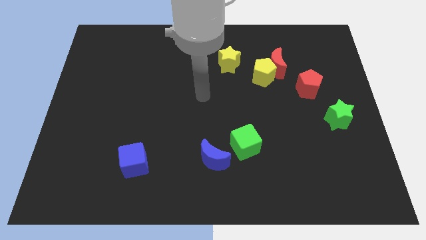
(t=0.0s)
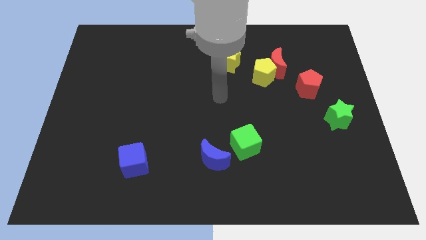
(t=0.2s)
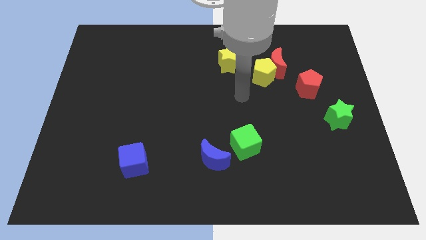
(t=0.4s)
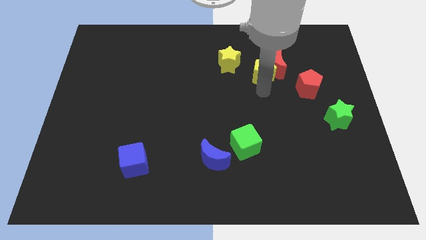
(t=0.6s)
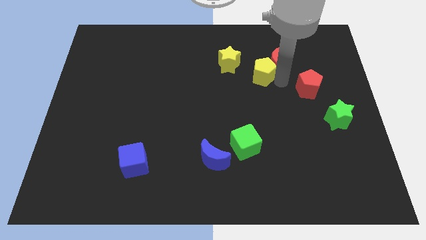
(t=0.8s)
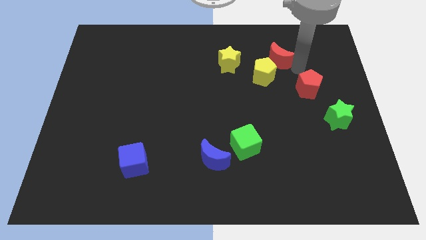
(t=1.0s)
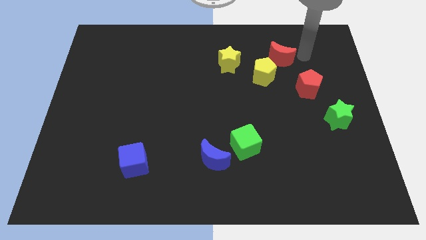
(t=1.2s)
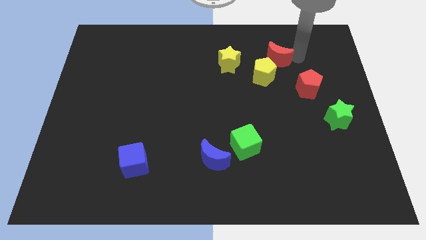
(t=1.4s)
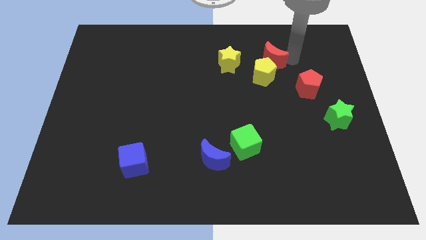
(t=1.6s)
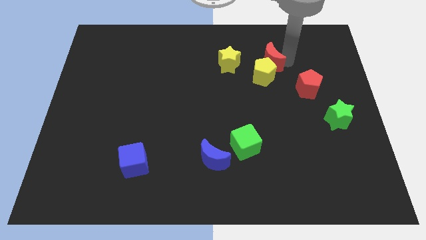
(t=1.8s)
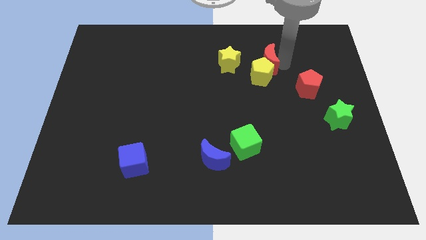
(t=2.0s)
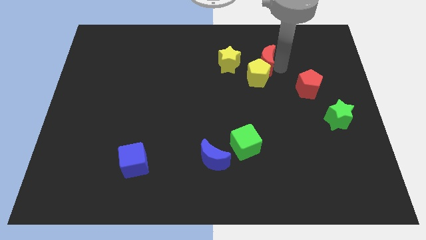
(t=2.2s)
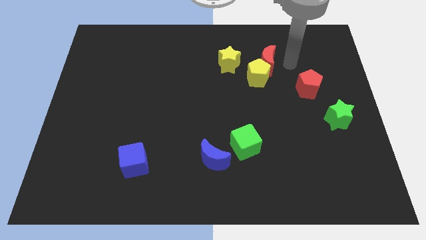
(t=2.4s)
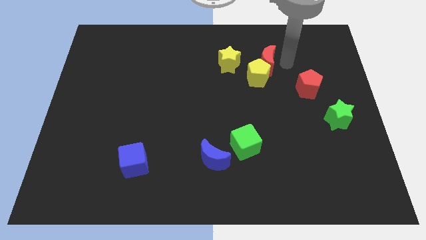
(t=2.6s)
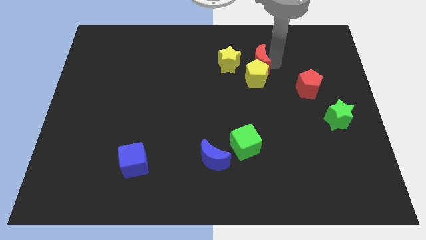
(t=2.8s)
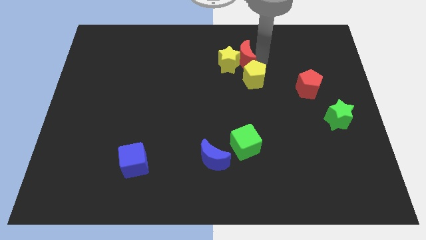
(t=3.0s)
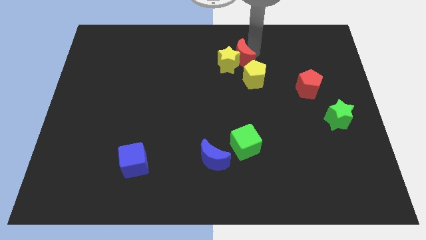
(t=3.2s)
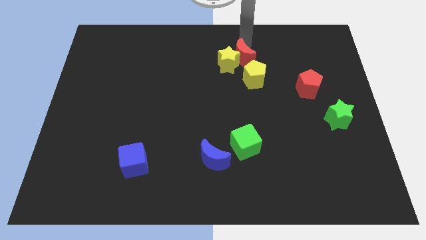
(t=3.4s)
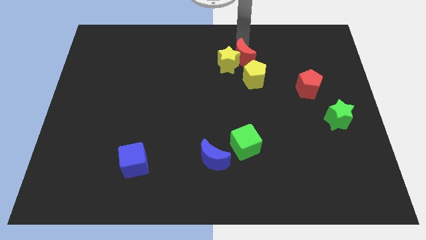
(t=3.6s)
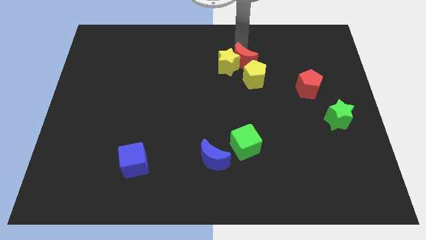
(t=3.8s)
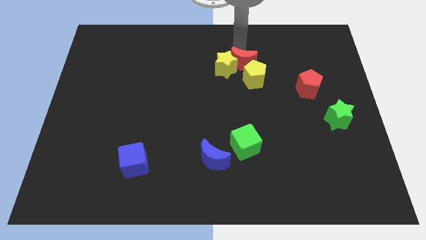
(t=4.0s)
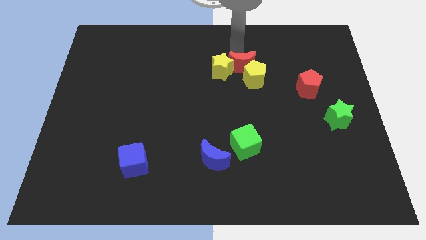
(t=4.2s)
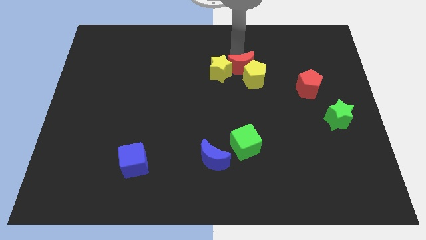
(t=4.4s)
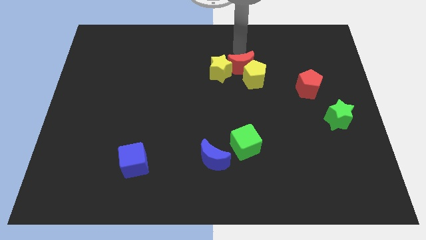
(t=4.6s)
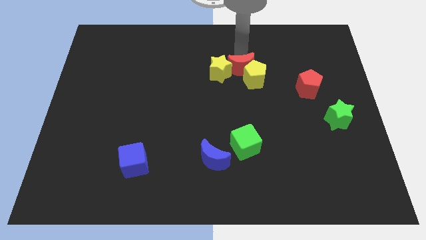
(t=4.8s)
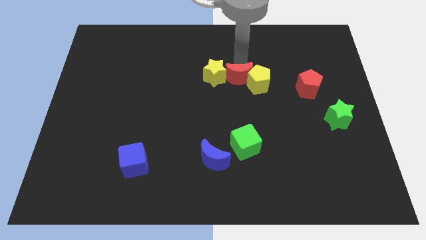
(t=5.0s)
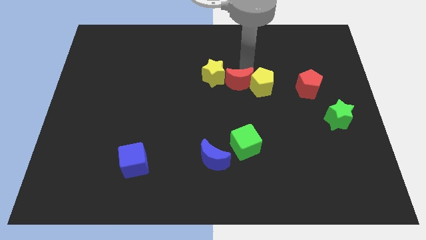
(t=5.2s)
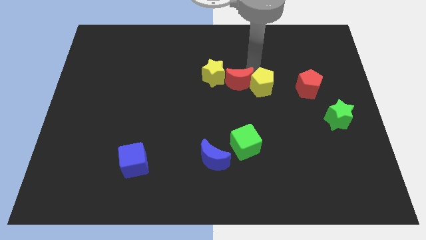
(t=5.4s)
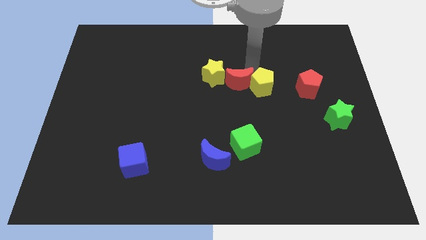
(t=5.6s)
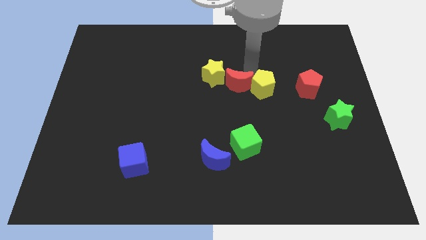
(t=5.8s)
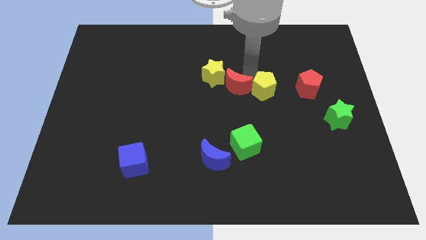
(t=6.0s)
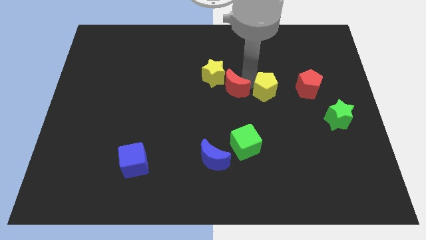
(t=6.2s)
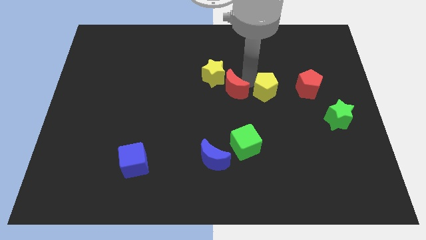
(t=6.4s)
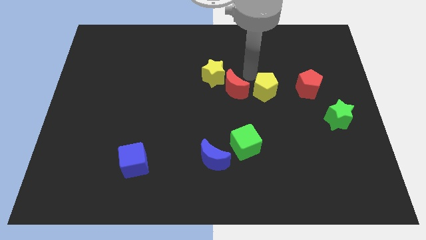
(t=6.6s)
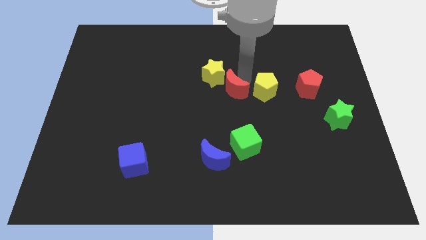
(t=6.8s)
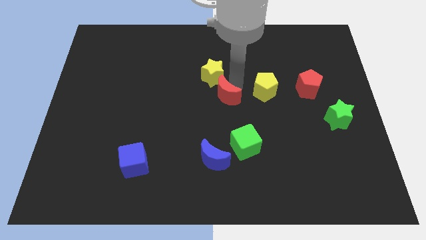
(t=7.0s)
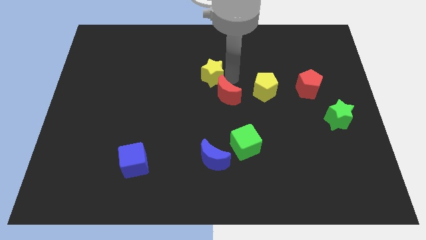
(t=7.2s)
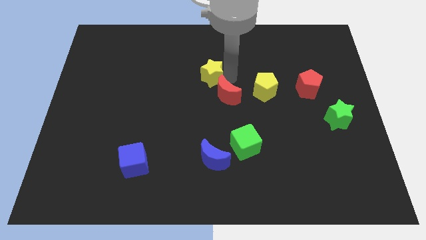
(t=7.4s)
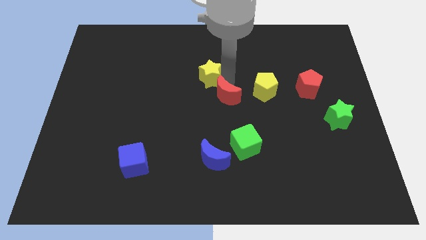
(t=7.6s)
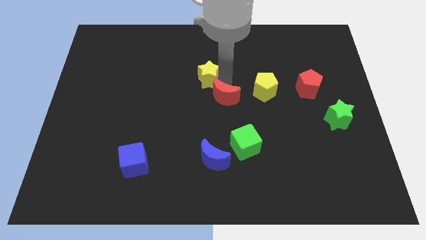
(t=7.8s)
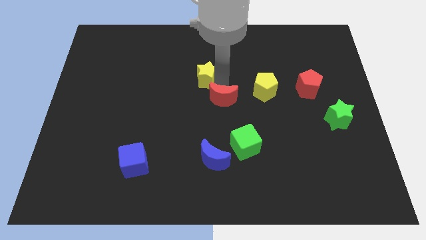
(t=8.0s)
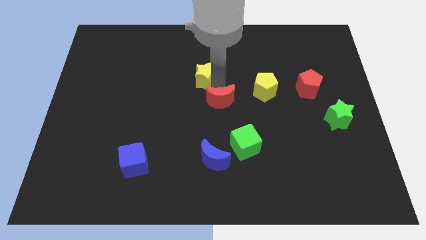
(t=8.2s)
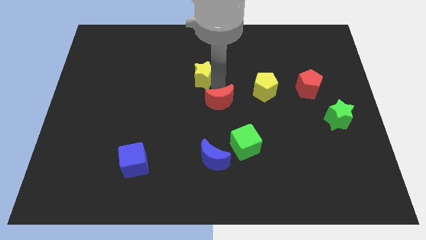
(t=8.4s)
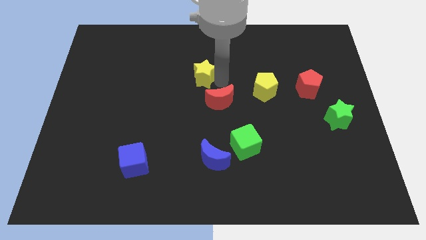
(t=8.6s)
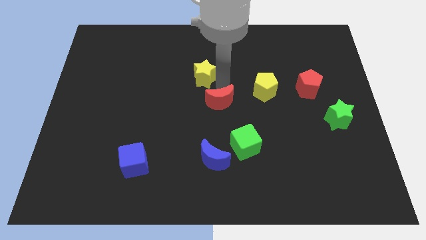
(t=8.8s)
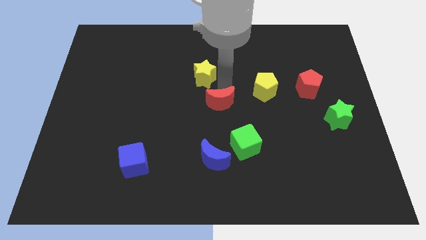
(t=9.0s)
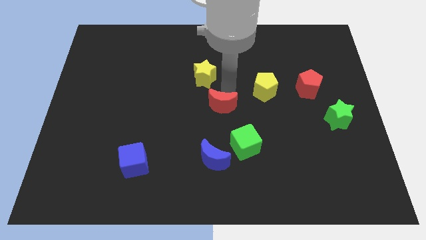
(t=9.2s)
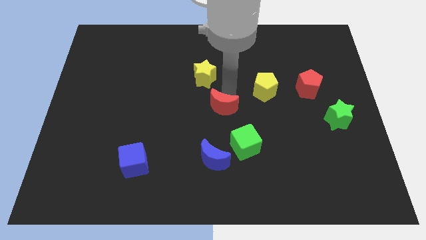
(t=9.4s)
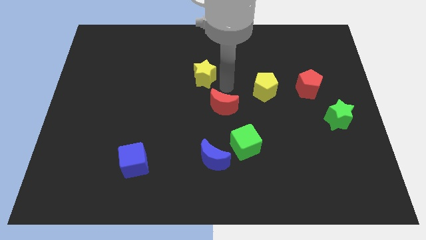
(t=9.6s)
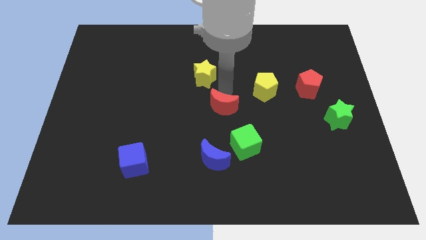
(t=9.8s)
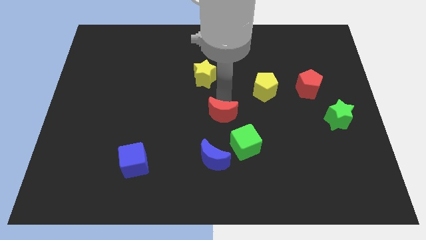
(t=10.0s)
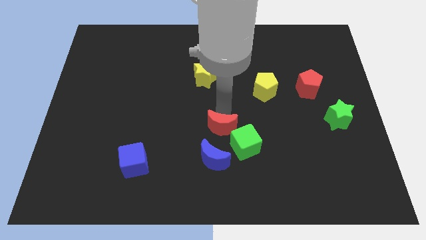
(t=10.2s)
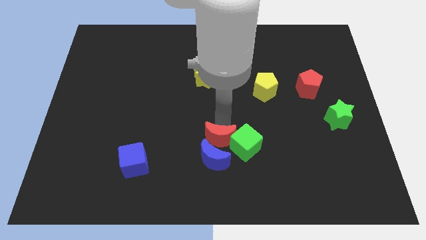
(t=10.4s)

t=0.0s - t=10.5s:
put the red moon towards the blue moon

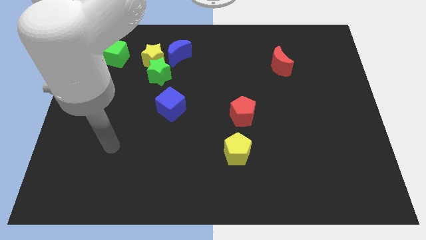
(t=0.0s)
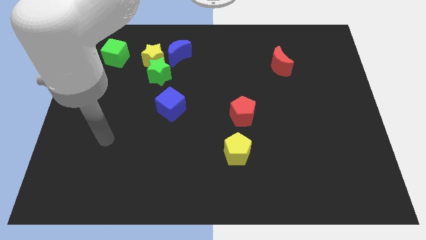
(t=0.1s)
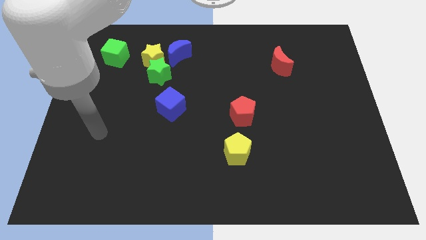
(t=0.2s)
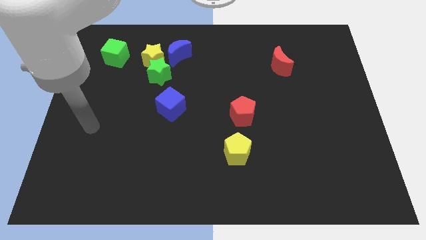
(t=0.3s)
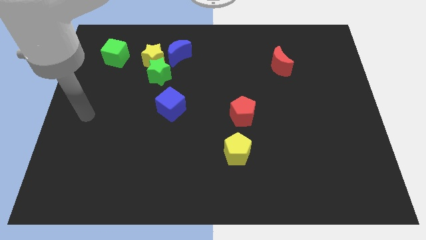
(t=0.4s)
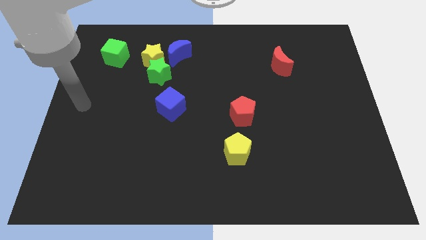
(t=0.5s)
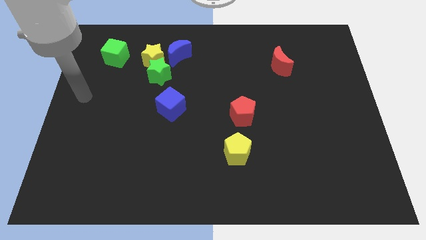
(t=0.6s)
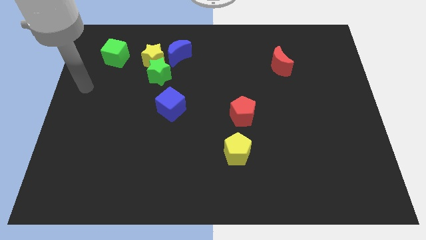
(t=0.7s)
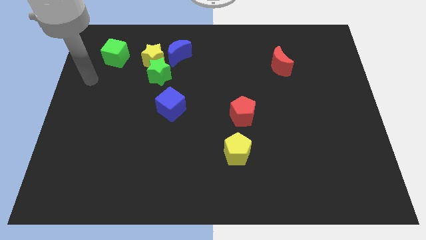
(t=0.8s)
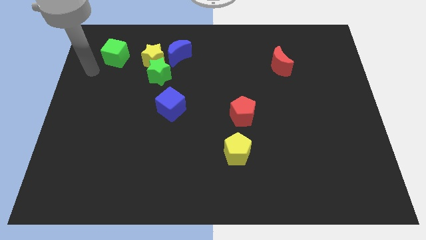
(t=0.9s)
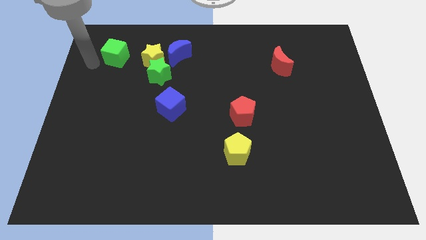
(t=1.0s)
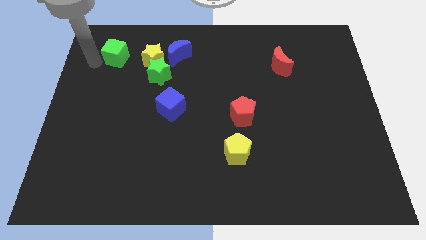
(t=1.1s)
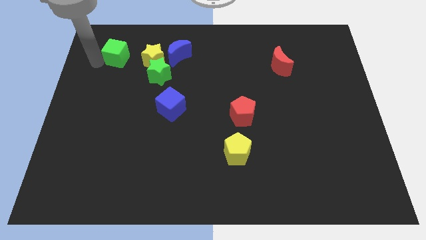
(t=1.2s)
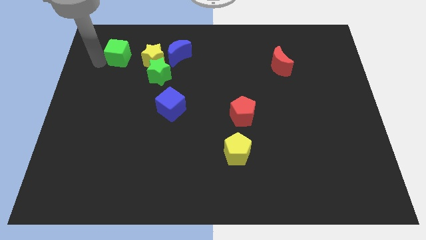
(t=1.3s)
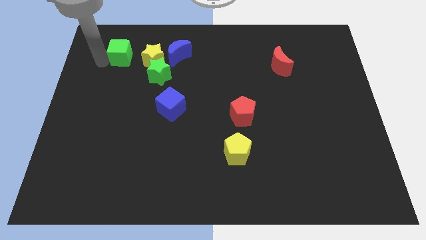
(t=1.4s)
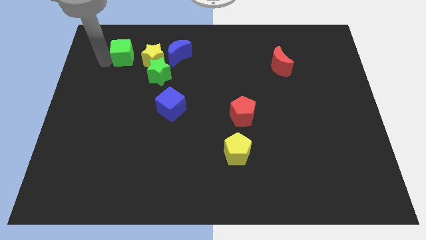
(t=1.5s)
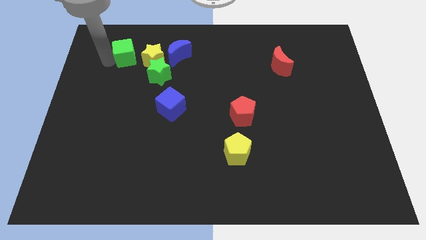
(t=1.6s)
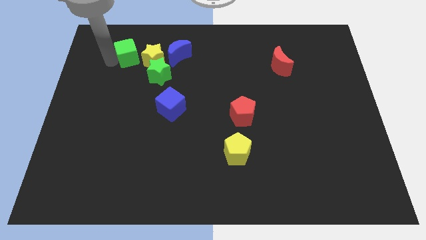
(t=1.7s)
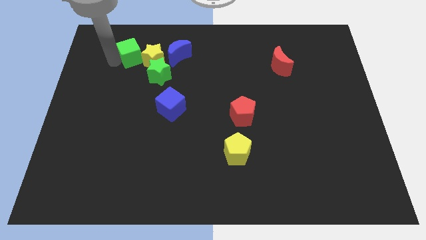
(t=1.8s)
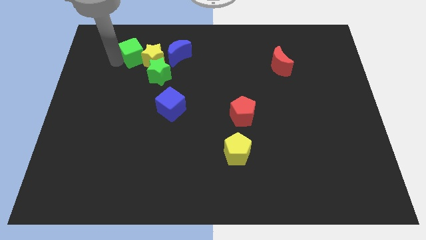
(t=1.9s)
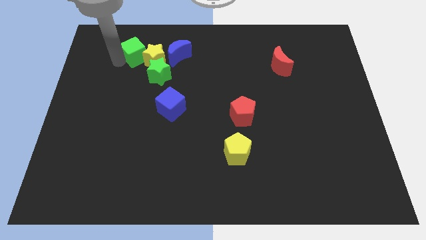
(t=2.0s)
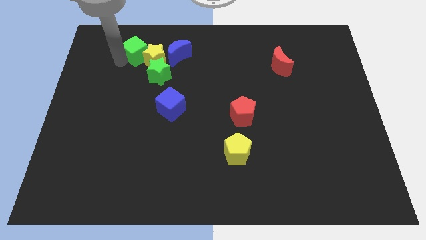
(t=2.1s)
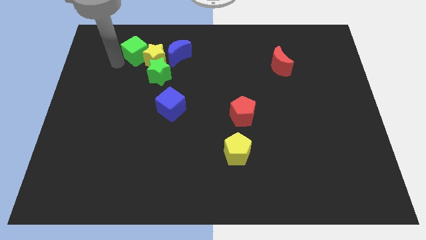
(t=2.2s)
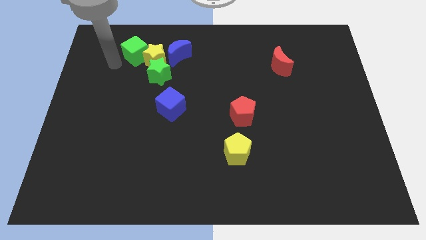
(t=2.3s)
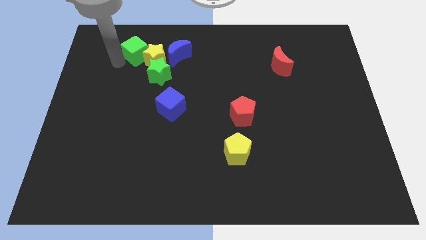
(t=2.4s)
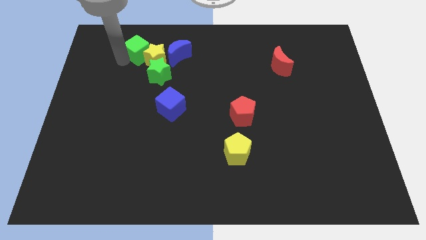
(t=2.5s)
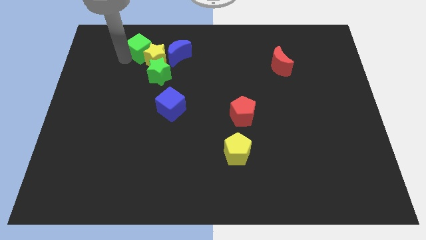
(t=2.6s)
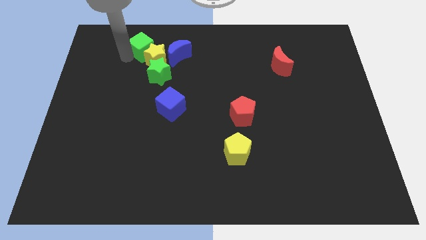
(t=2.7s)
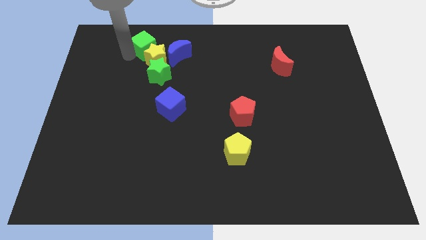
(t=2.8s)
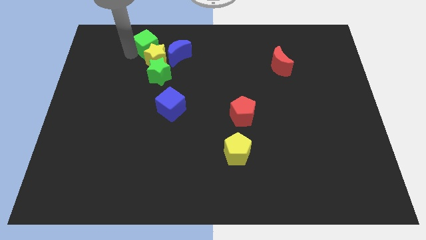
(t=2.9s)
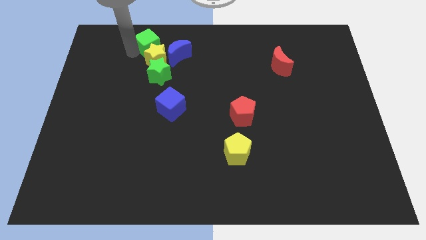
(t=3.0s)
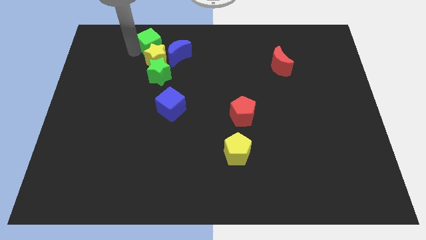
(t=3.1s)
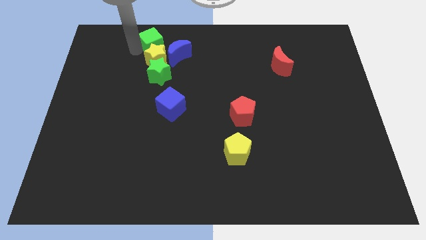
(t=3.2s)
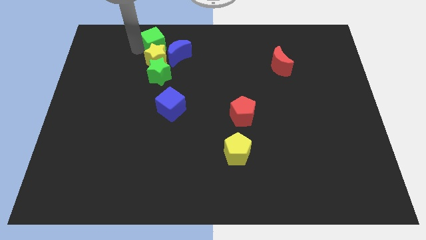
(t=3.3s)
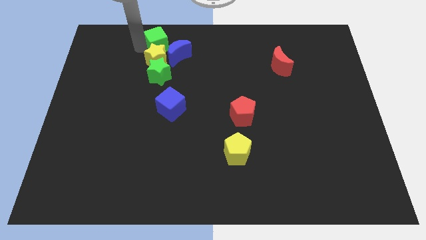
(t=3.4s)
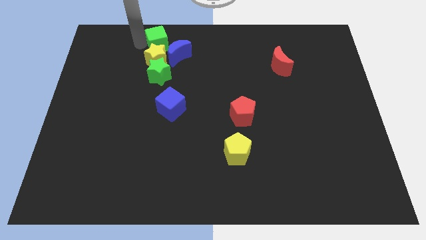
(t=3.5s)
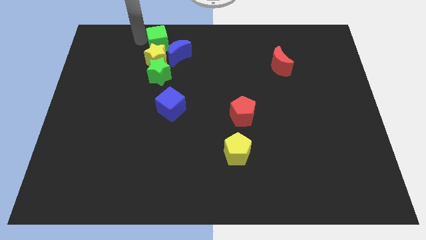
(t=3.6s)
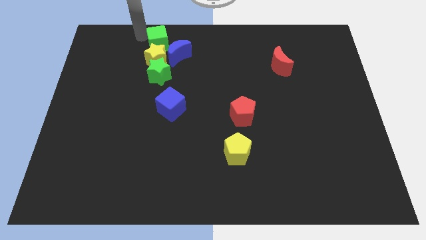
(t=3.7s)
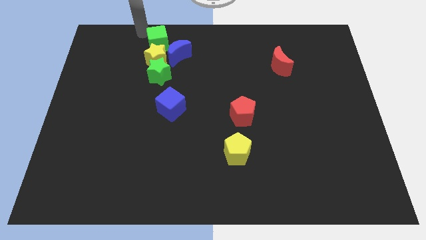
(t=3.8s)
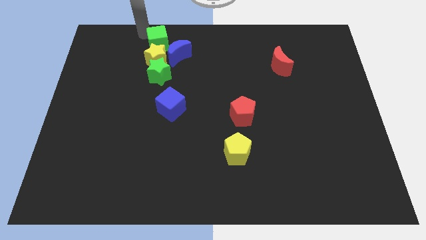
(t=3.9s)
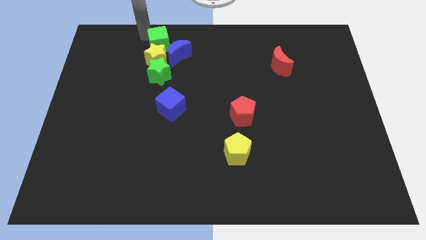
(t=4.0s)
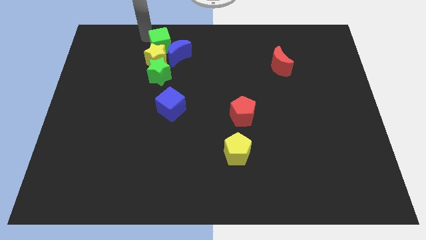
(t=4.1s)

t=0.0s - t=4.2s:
slide the green cube towards the blue moon
